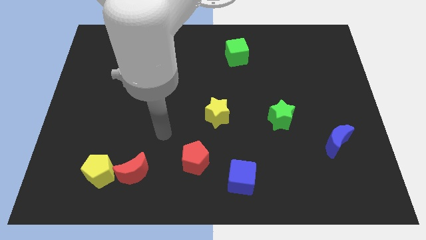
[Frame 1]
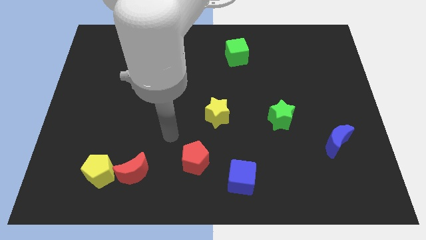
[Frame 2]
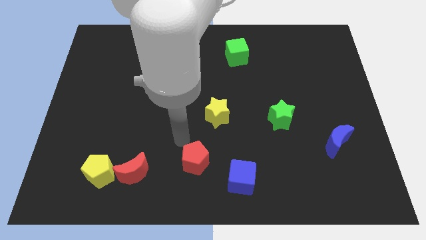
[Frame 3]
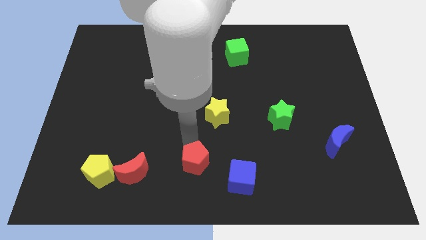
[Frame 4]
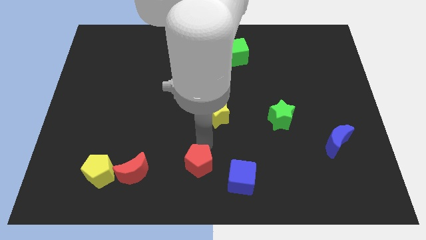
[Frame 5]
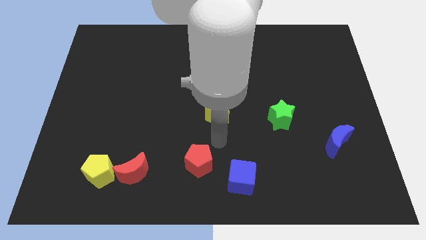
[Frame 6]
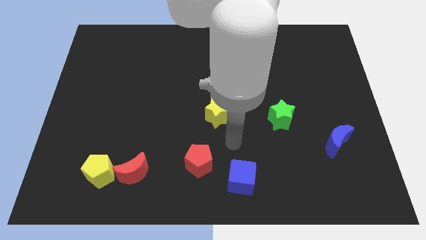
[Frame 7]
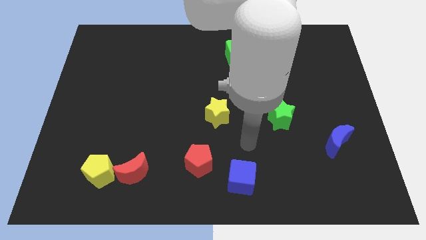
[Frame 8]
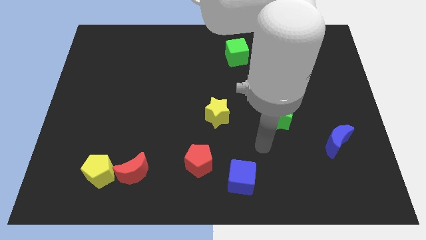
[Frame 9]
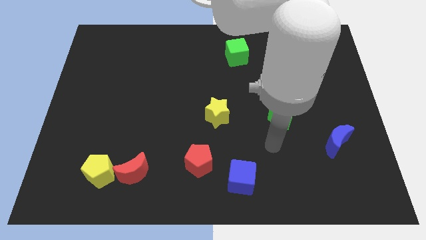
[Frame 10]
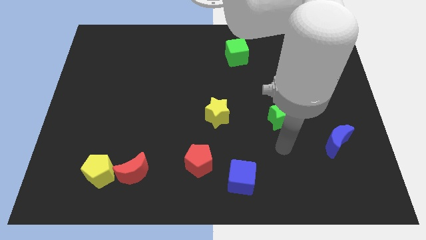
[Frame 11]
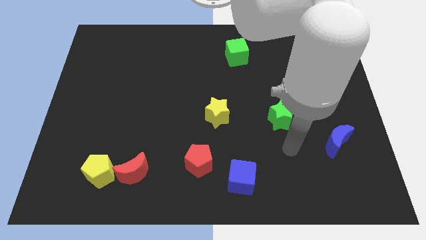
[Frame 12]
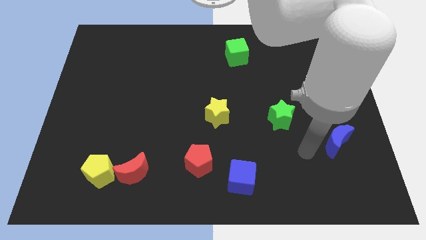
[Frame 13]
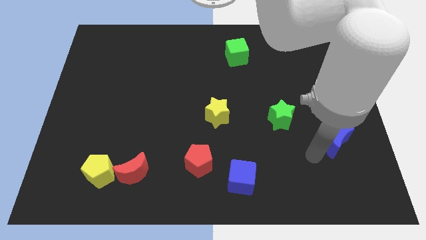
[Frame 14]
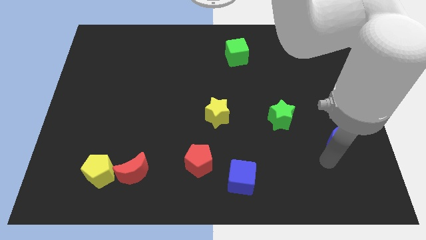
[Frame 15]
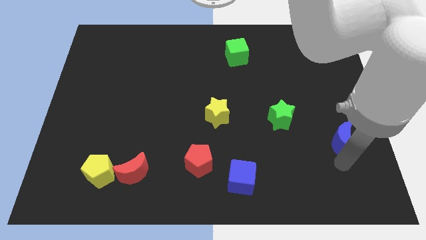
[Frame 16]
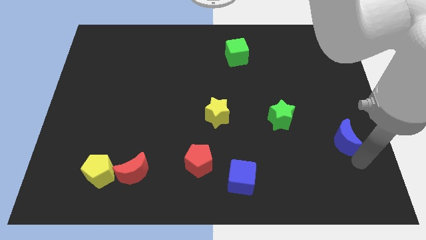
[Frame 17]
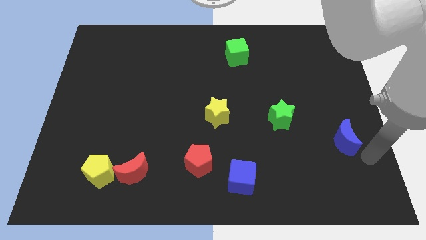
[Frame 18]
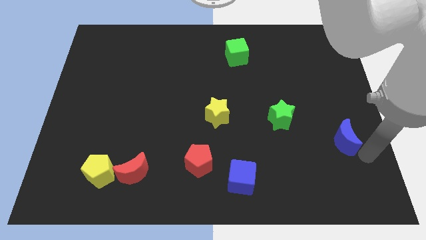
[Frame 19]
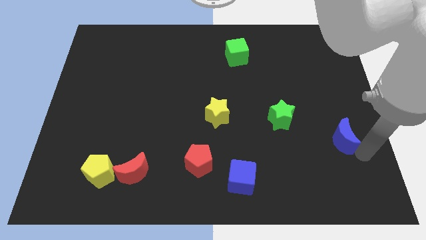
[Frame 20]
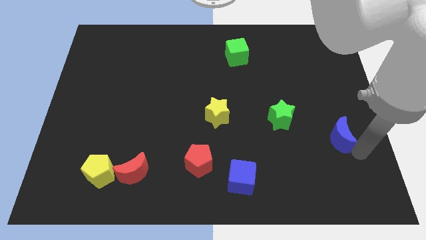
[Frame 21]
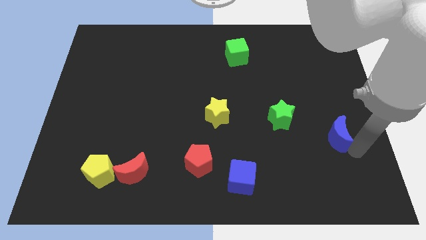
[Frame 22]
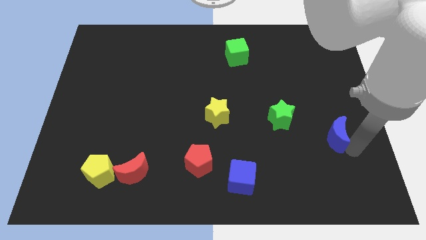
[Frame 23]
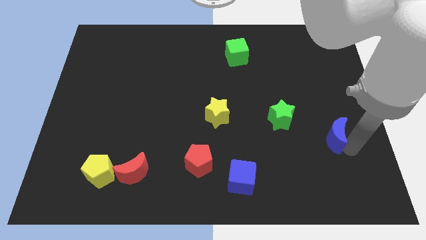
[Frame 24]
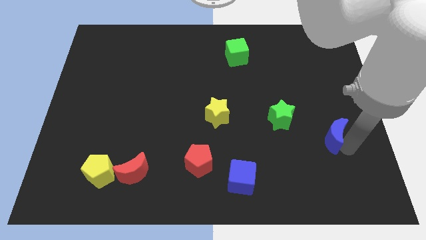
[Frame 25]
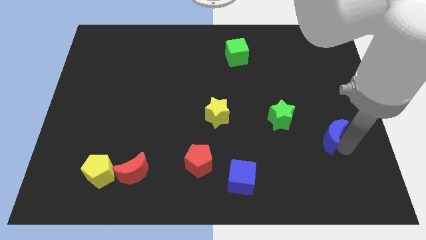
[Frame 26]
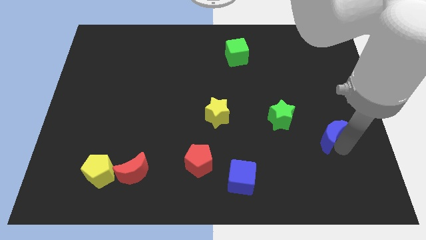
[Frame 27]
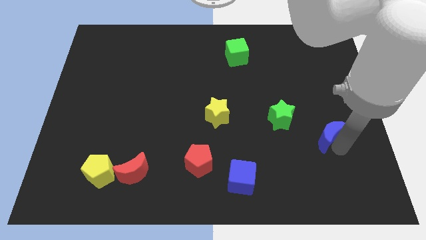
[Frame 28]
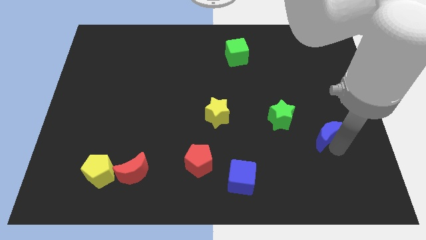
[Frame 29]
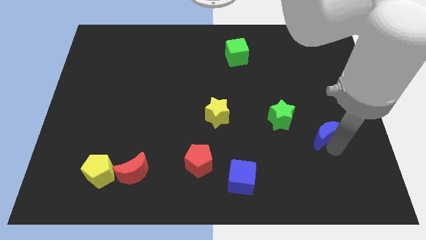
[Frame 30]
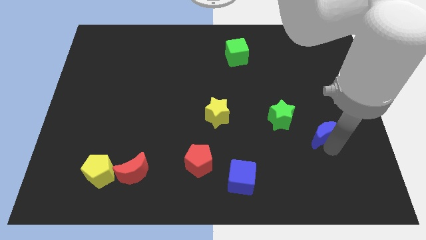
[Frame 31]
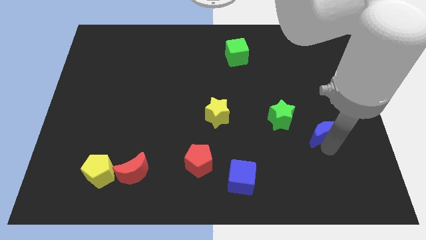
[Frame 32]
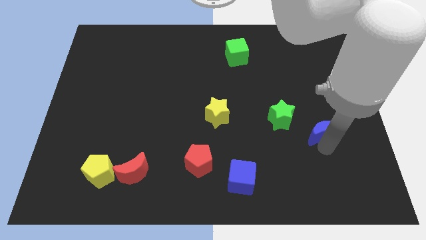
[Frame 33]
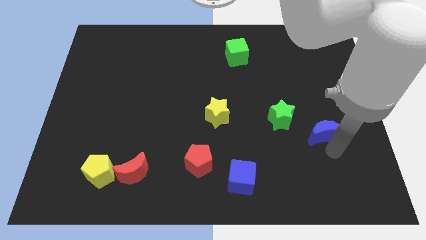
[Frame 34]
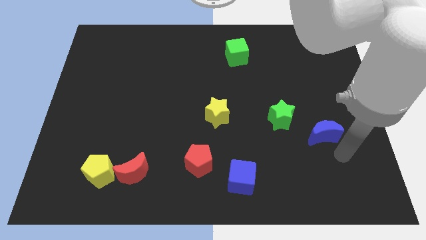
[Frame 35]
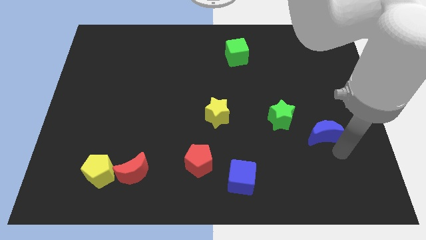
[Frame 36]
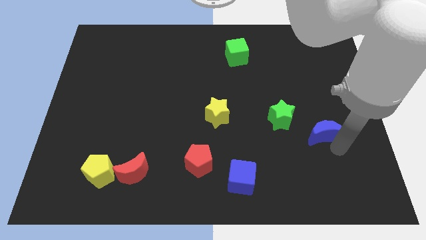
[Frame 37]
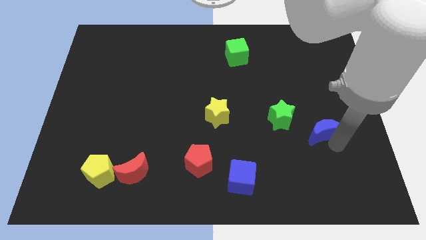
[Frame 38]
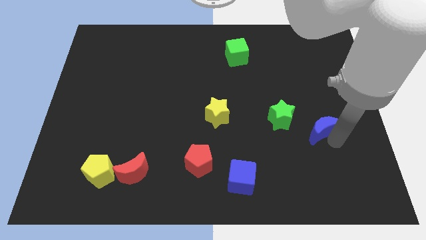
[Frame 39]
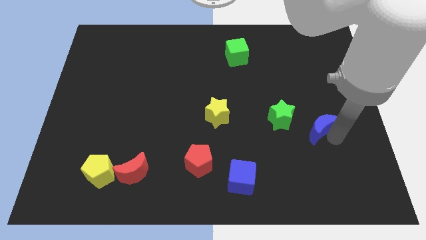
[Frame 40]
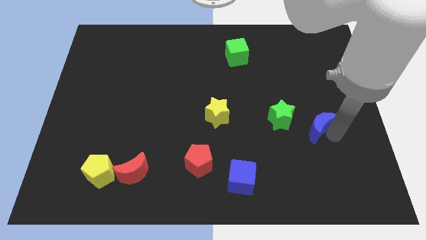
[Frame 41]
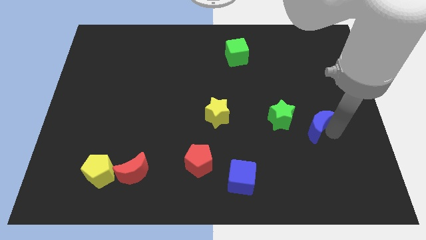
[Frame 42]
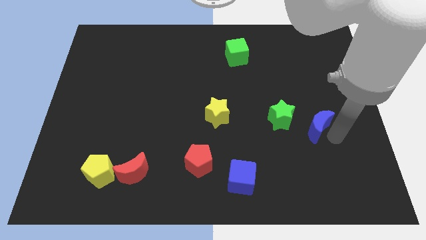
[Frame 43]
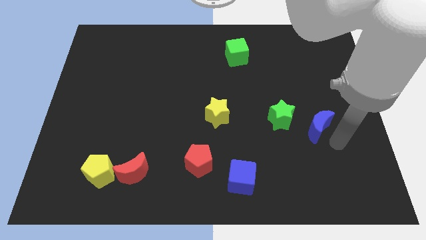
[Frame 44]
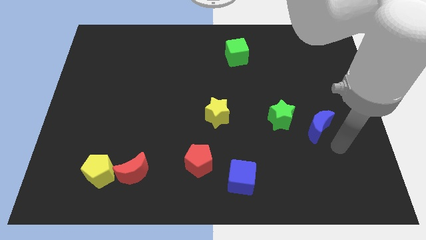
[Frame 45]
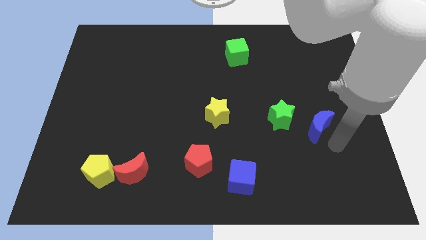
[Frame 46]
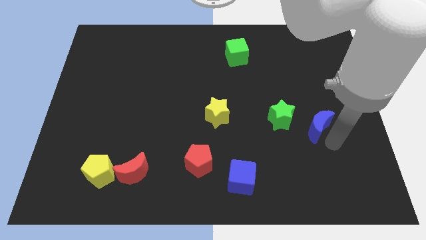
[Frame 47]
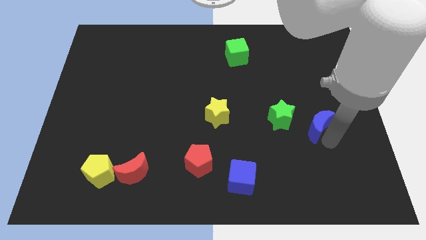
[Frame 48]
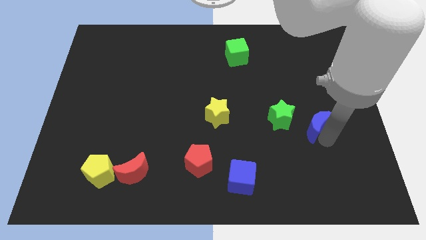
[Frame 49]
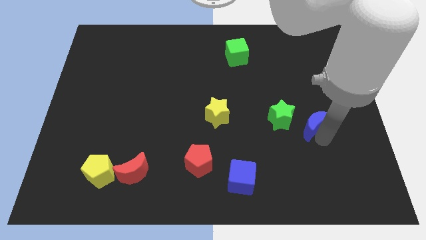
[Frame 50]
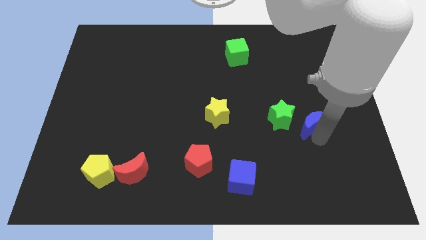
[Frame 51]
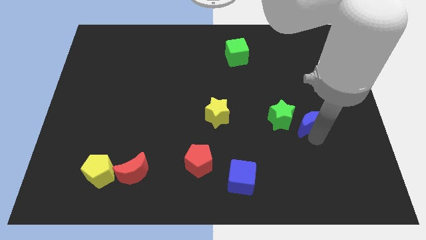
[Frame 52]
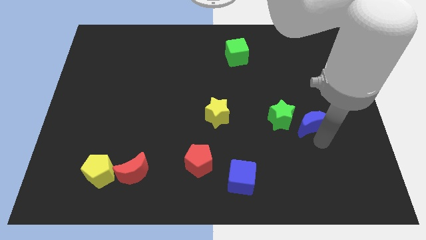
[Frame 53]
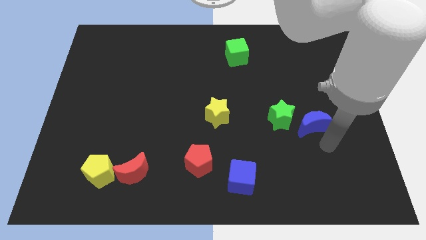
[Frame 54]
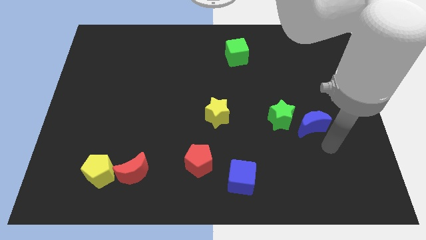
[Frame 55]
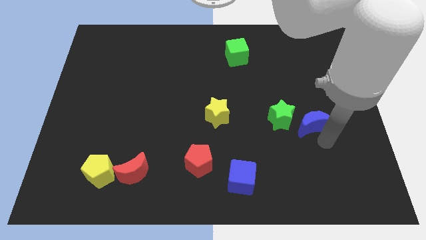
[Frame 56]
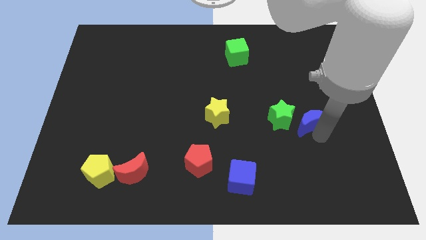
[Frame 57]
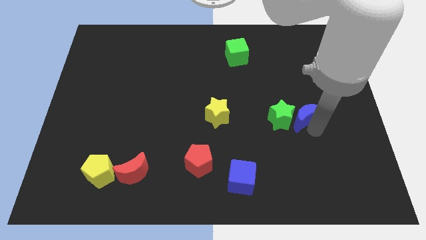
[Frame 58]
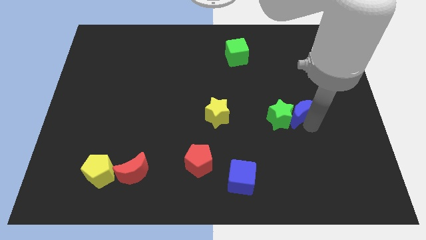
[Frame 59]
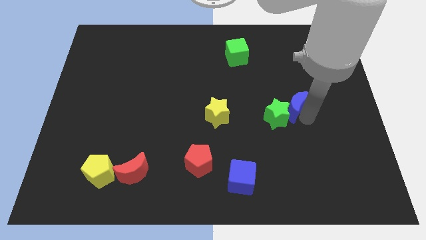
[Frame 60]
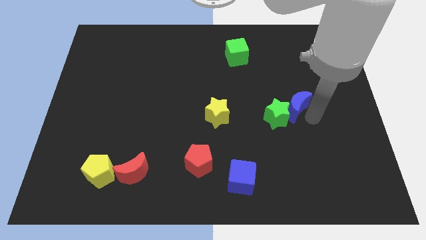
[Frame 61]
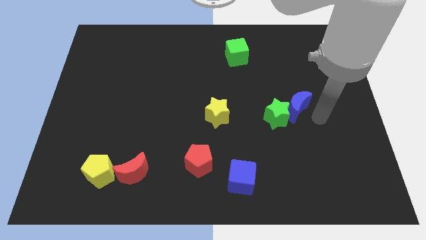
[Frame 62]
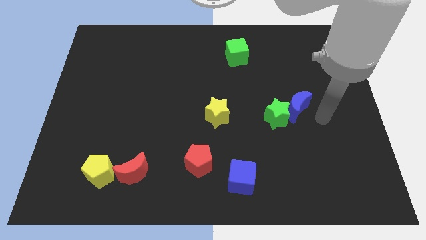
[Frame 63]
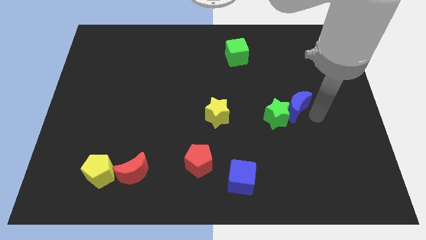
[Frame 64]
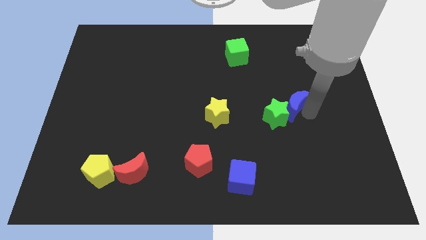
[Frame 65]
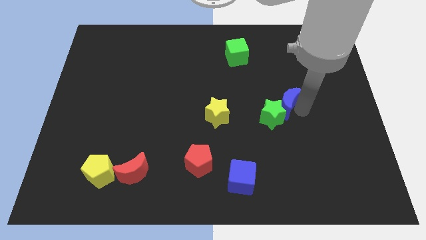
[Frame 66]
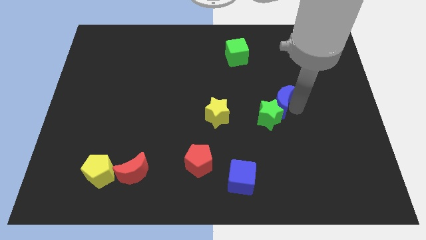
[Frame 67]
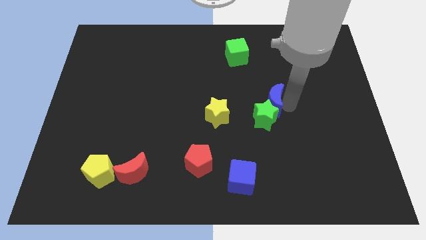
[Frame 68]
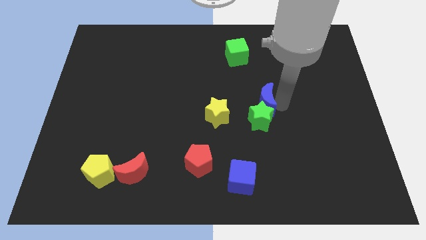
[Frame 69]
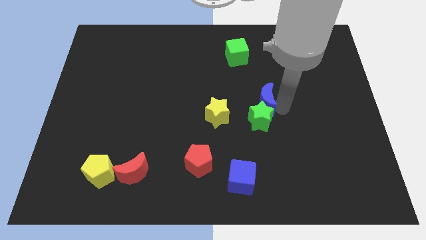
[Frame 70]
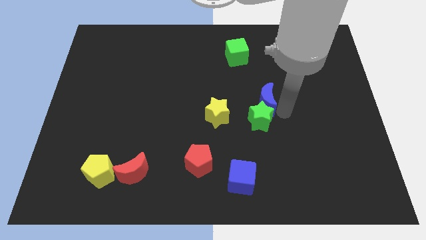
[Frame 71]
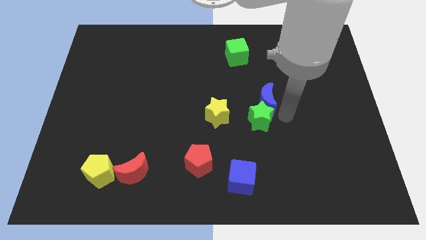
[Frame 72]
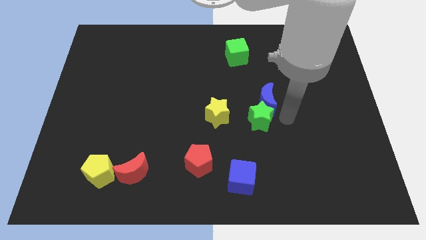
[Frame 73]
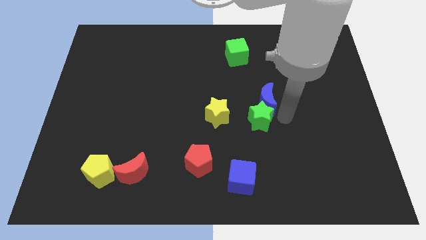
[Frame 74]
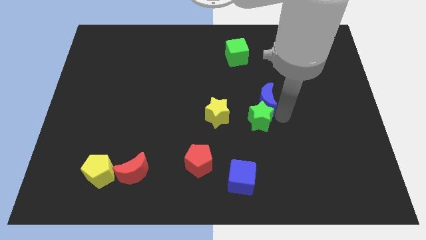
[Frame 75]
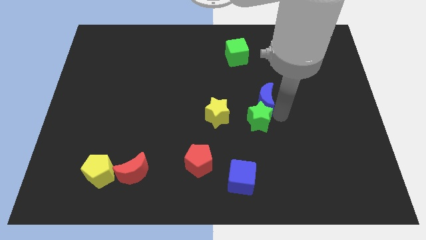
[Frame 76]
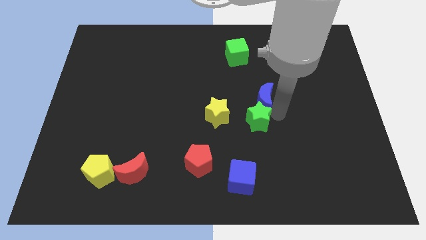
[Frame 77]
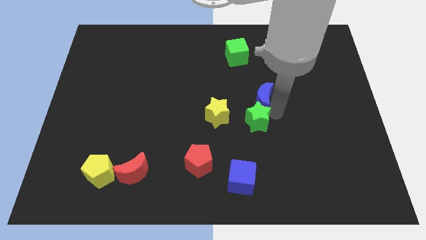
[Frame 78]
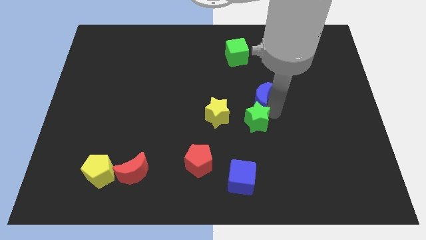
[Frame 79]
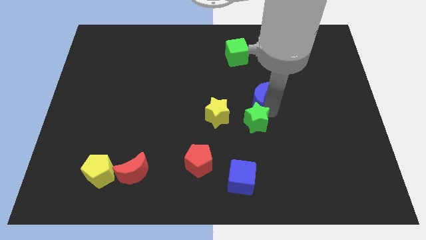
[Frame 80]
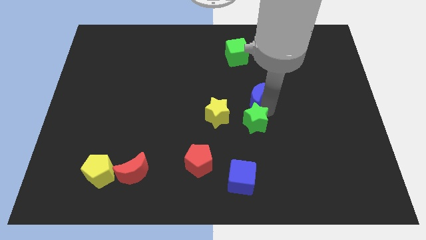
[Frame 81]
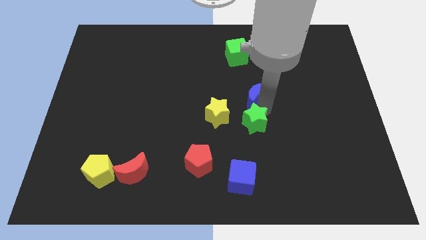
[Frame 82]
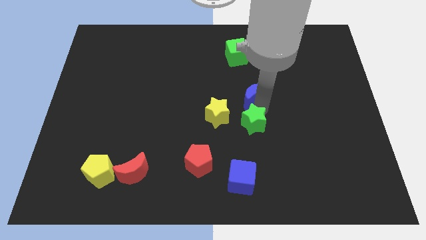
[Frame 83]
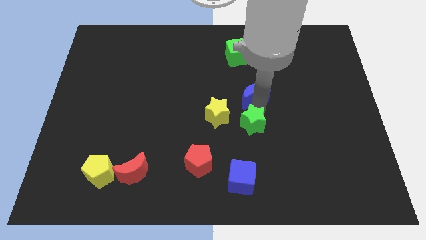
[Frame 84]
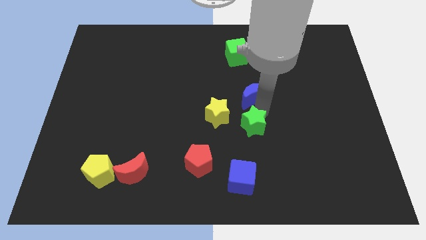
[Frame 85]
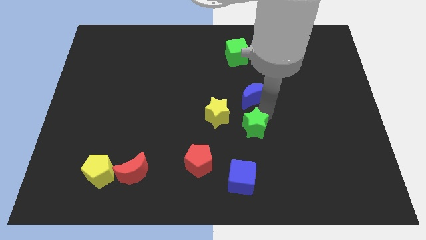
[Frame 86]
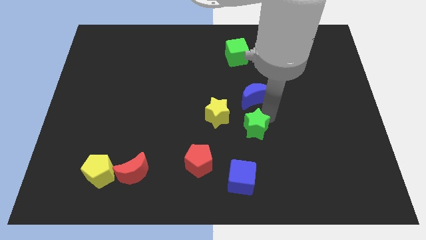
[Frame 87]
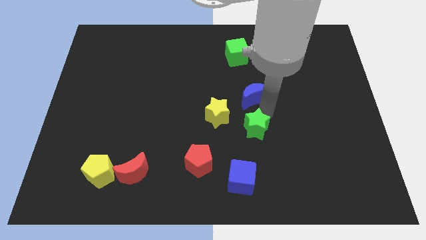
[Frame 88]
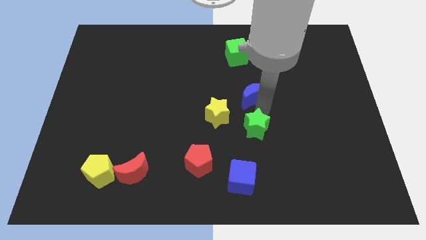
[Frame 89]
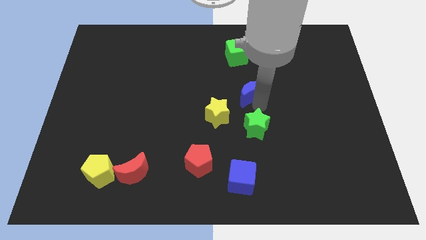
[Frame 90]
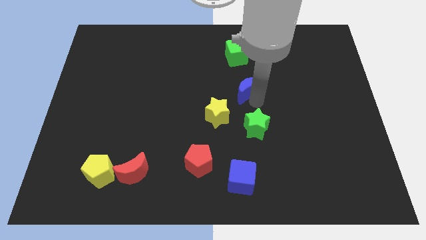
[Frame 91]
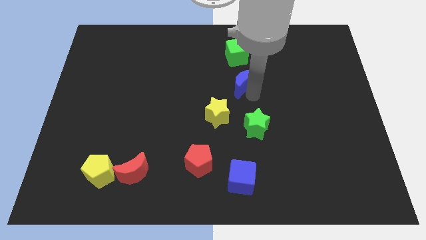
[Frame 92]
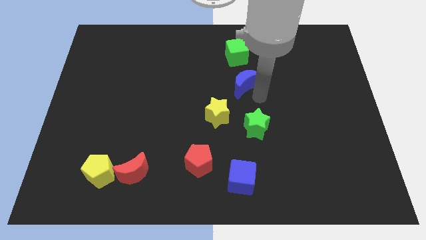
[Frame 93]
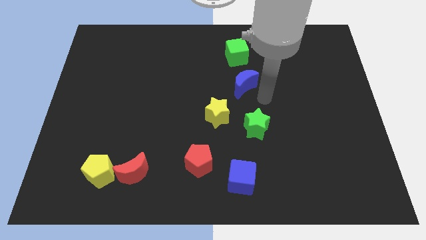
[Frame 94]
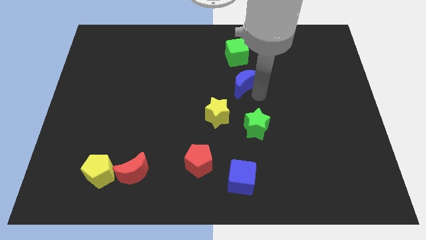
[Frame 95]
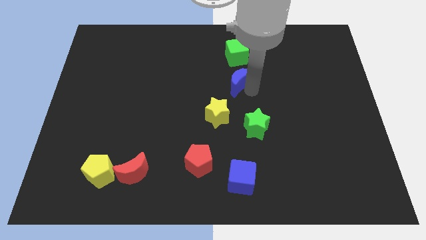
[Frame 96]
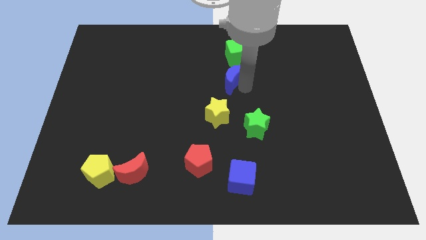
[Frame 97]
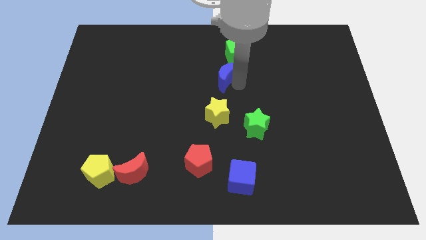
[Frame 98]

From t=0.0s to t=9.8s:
push the blue moon to the bottom left of the green cube
